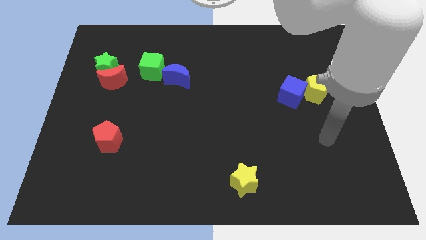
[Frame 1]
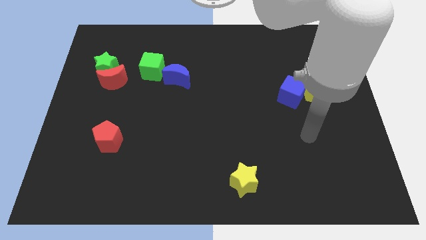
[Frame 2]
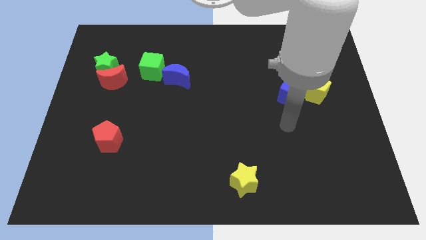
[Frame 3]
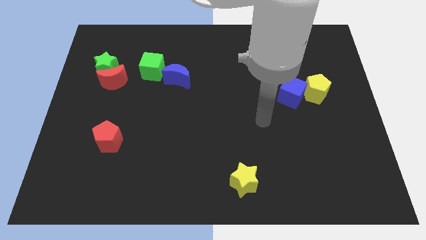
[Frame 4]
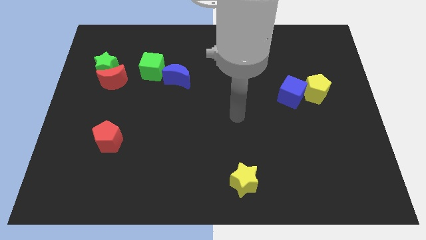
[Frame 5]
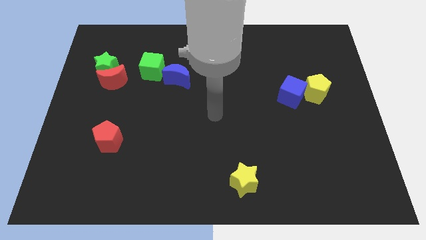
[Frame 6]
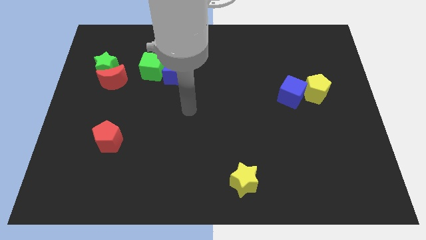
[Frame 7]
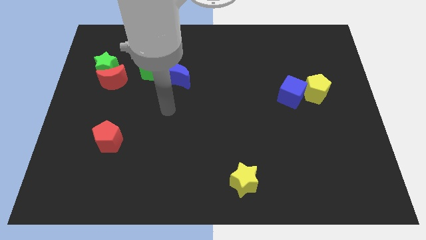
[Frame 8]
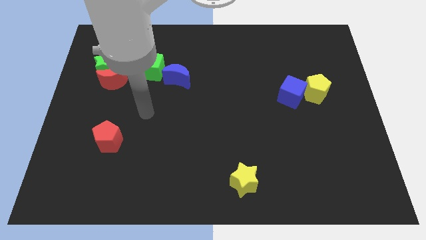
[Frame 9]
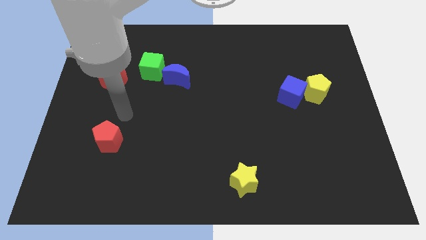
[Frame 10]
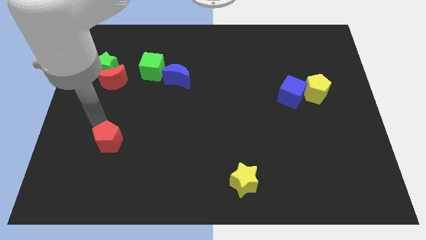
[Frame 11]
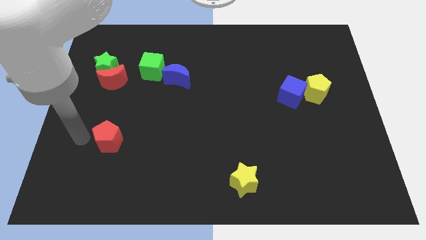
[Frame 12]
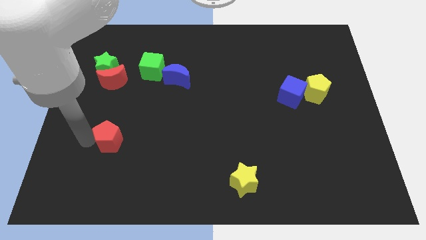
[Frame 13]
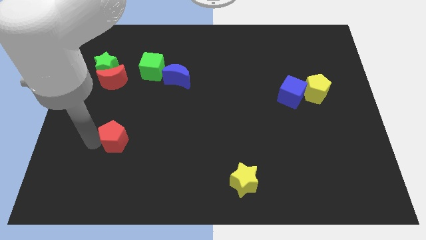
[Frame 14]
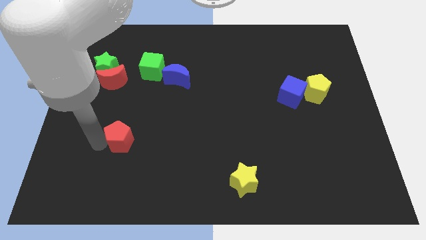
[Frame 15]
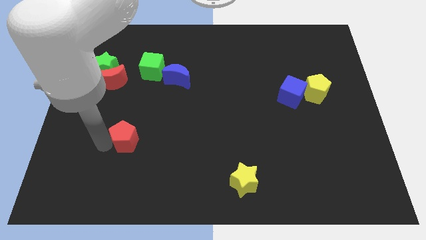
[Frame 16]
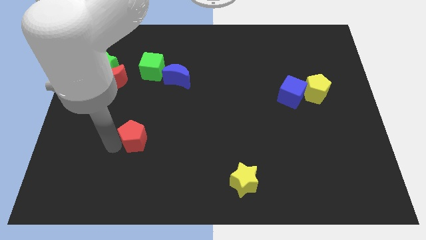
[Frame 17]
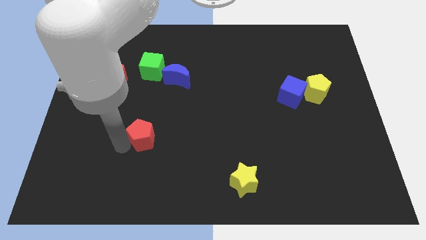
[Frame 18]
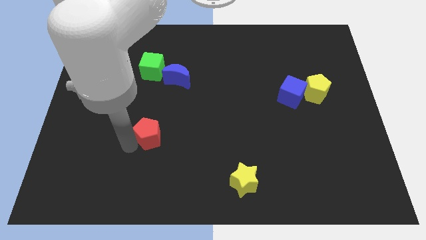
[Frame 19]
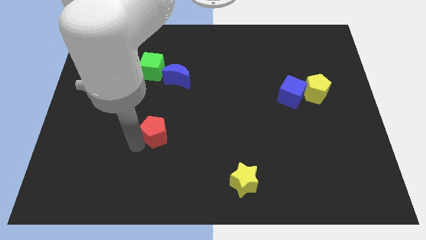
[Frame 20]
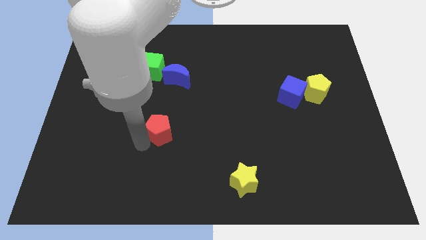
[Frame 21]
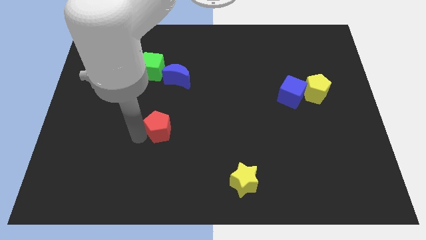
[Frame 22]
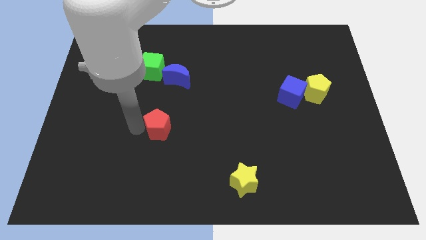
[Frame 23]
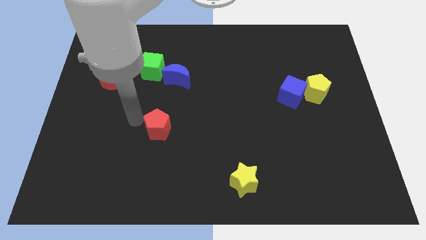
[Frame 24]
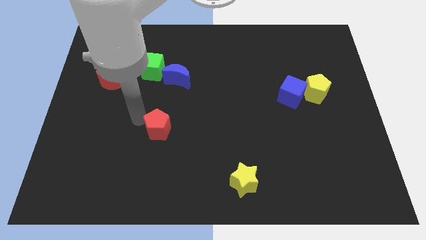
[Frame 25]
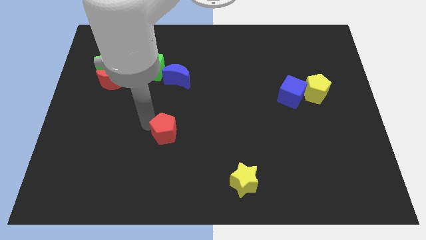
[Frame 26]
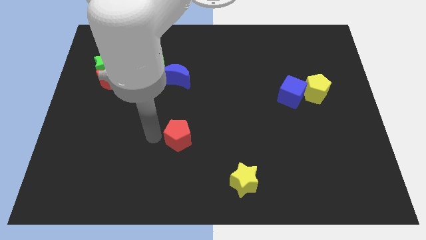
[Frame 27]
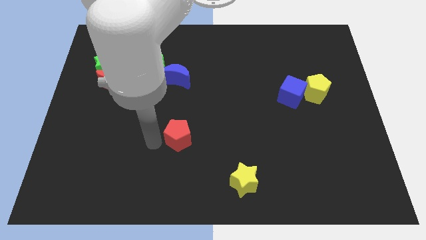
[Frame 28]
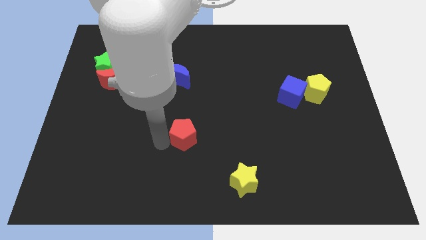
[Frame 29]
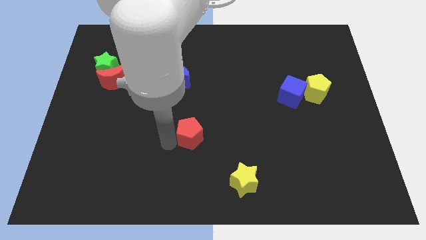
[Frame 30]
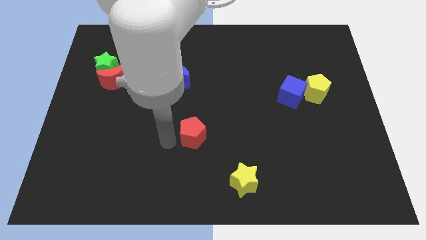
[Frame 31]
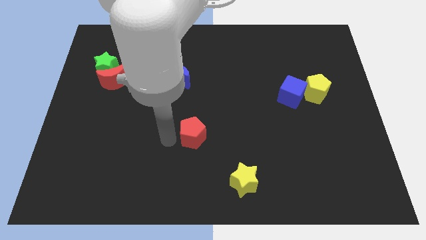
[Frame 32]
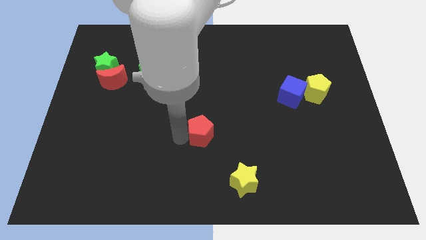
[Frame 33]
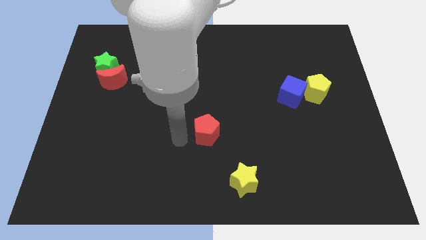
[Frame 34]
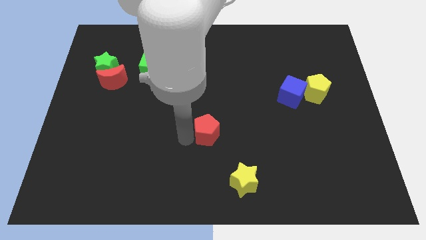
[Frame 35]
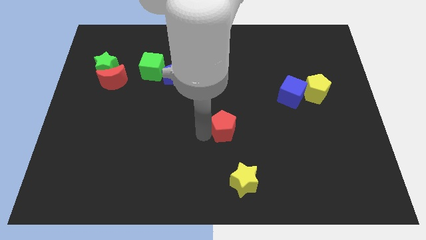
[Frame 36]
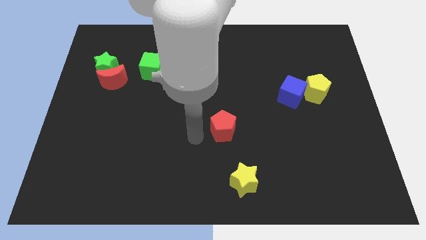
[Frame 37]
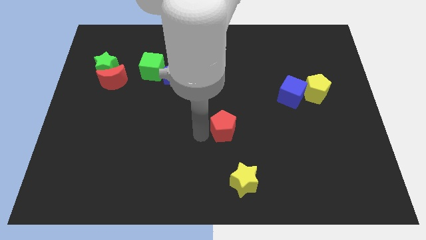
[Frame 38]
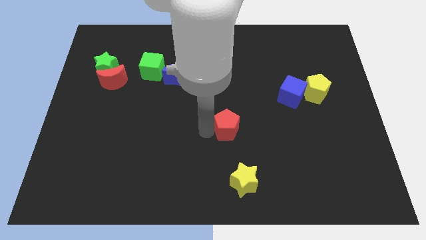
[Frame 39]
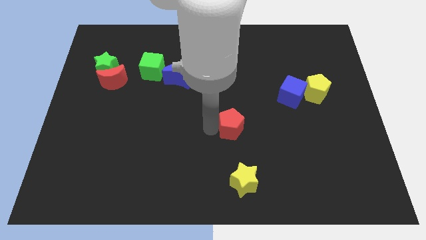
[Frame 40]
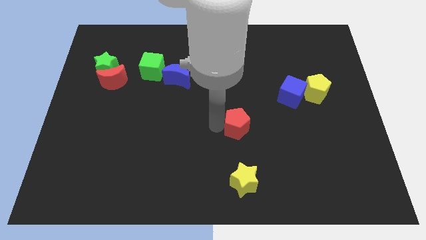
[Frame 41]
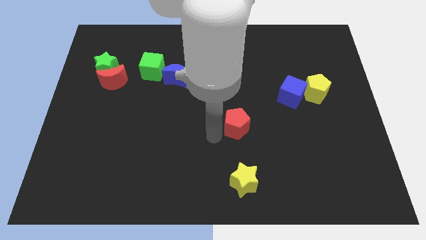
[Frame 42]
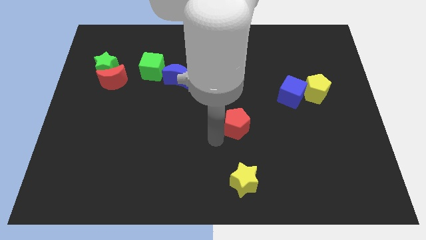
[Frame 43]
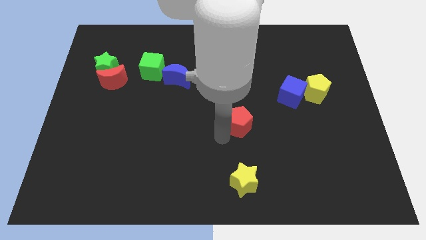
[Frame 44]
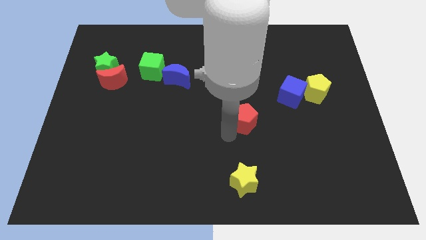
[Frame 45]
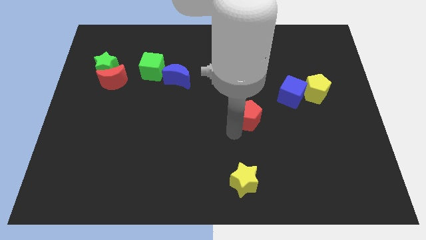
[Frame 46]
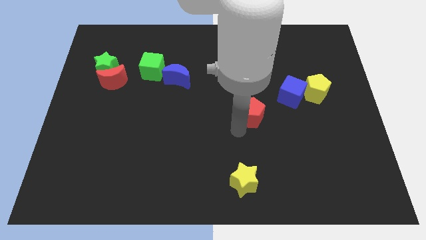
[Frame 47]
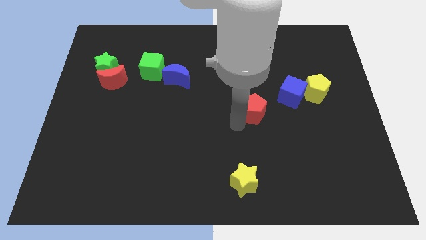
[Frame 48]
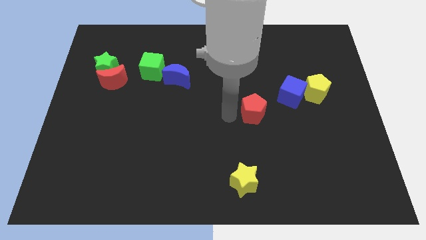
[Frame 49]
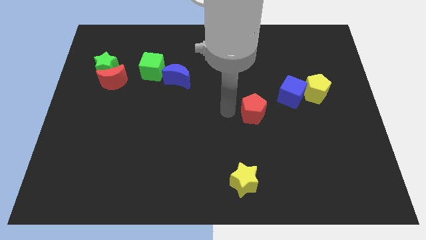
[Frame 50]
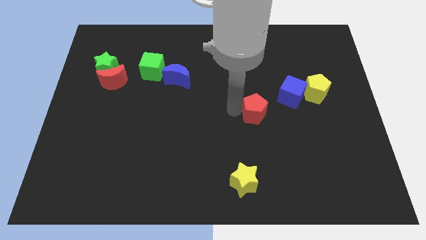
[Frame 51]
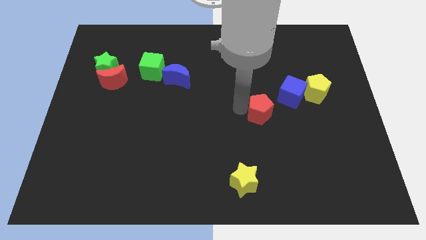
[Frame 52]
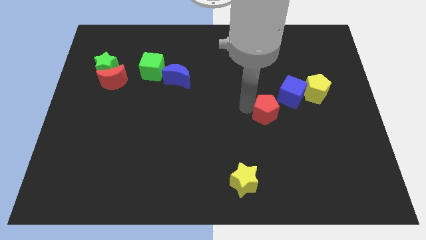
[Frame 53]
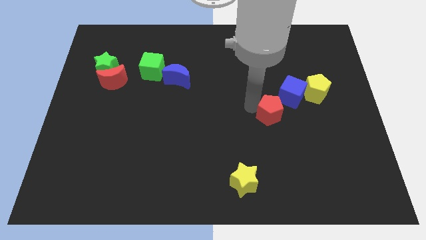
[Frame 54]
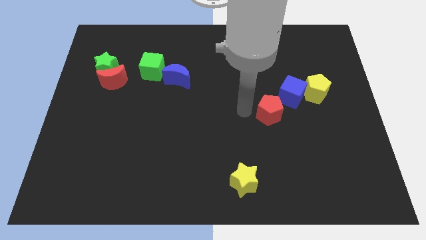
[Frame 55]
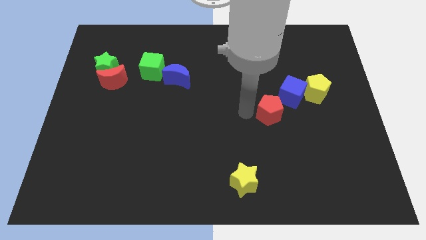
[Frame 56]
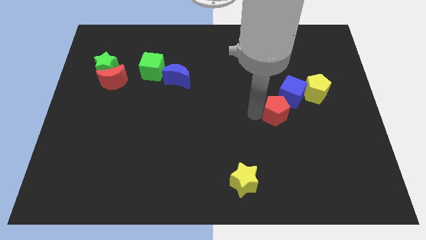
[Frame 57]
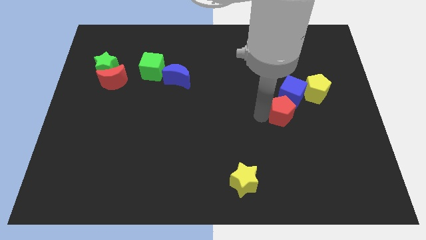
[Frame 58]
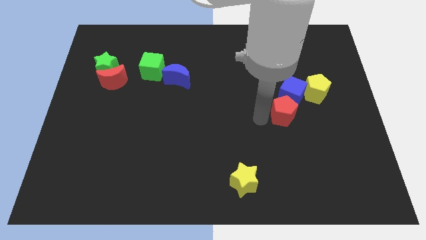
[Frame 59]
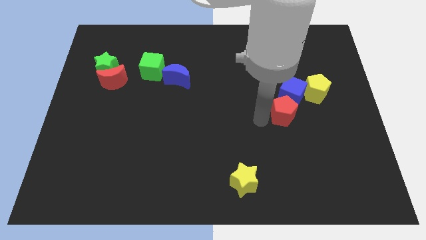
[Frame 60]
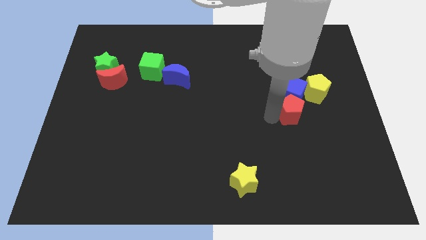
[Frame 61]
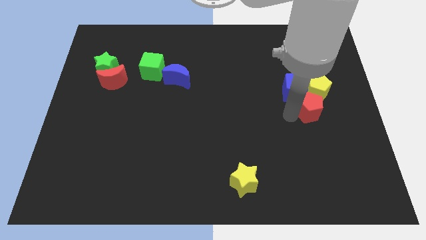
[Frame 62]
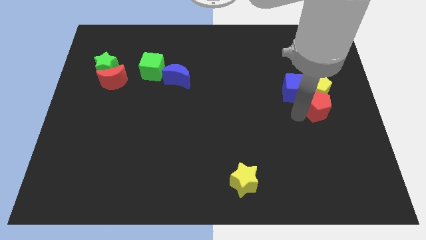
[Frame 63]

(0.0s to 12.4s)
push the red pentagon to the yellow pentagon

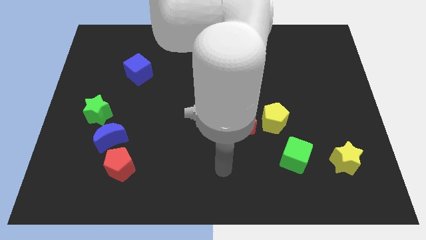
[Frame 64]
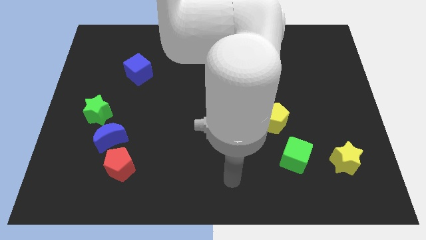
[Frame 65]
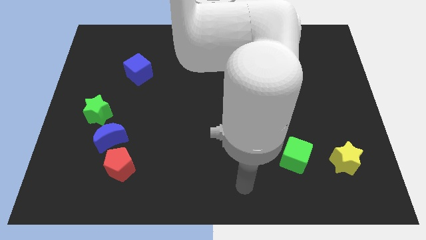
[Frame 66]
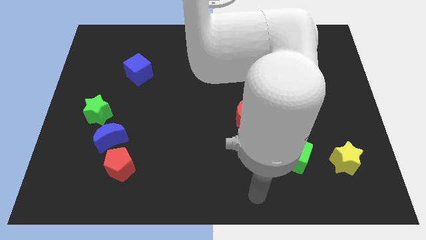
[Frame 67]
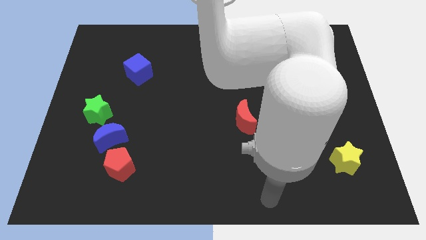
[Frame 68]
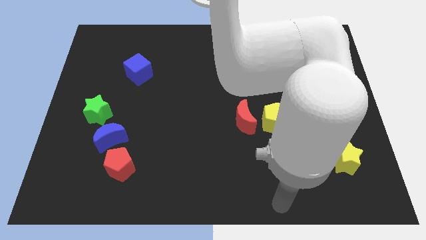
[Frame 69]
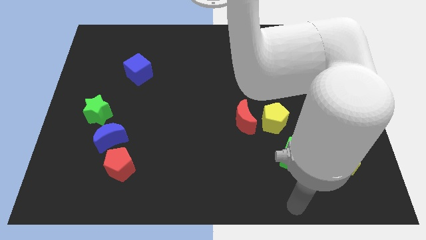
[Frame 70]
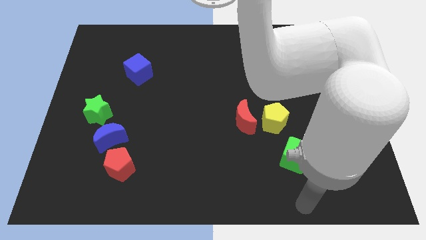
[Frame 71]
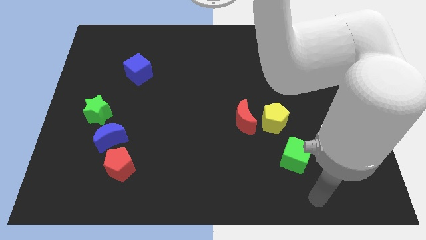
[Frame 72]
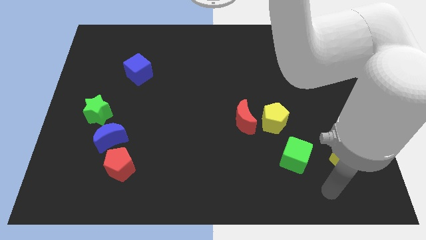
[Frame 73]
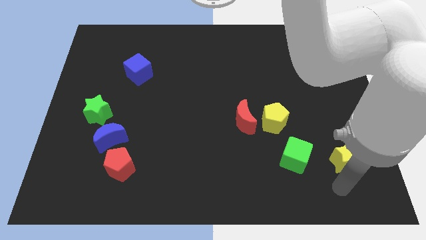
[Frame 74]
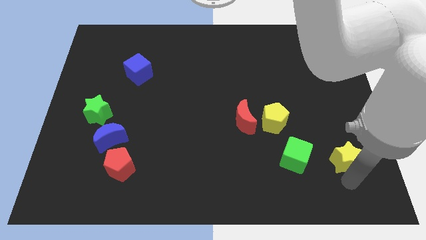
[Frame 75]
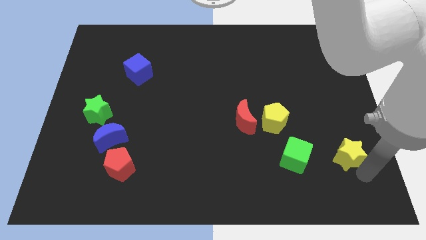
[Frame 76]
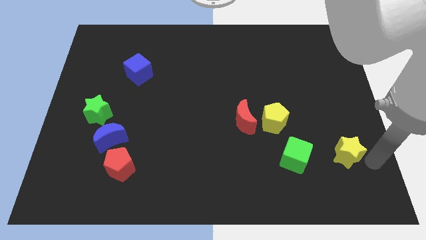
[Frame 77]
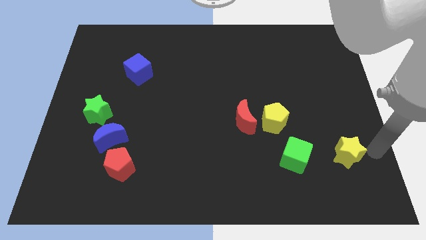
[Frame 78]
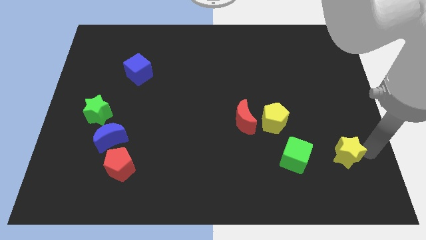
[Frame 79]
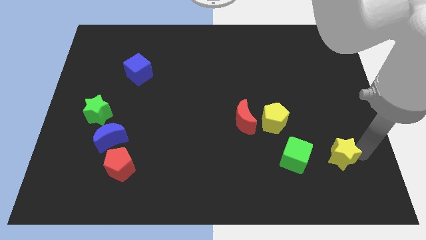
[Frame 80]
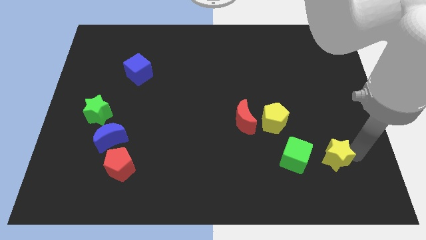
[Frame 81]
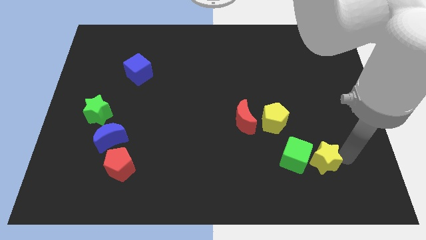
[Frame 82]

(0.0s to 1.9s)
slide the yellow star next to the green cube
